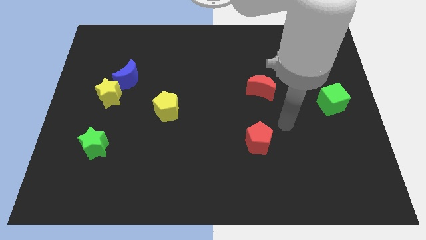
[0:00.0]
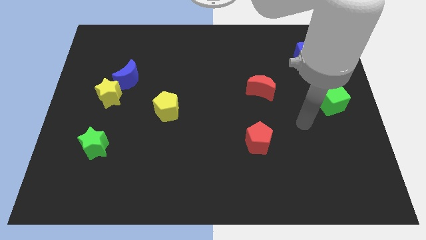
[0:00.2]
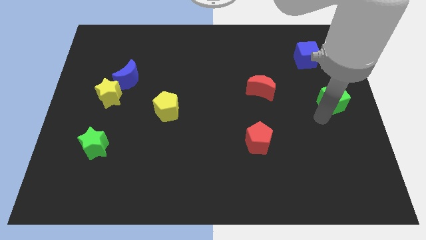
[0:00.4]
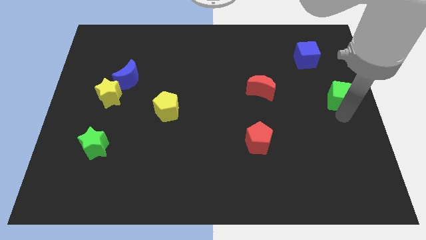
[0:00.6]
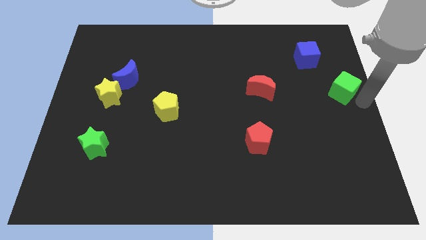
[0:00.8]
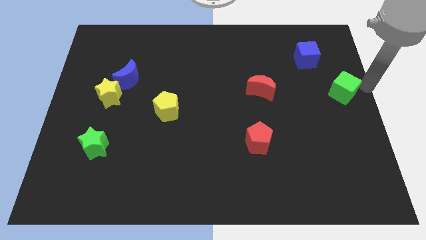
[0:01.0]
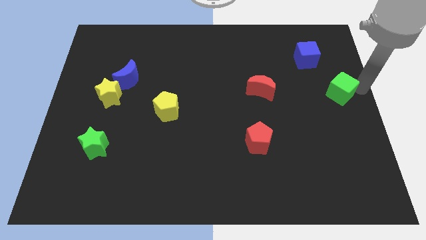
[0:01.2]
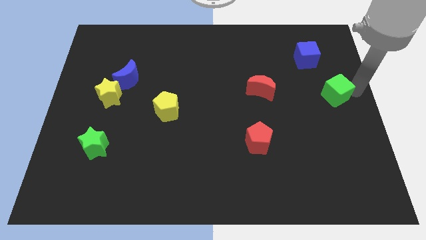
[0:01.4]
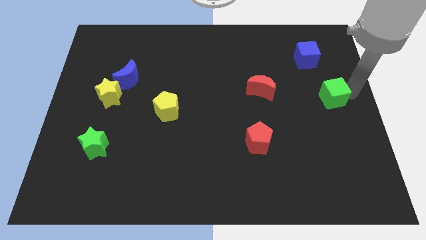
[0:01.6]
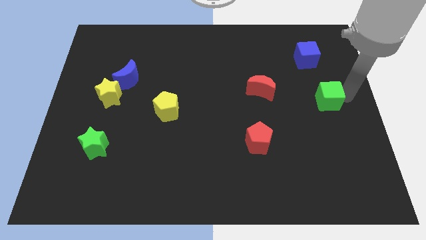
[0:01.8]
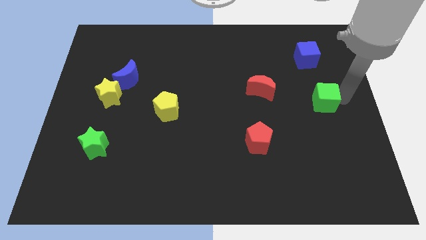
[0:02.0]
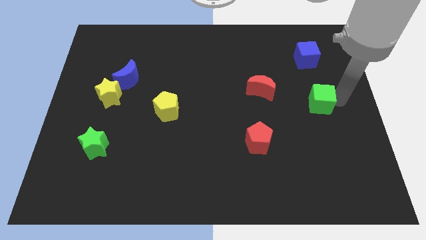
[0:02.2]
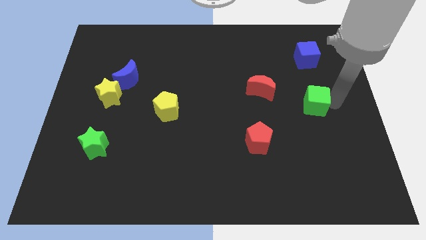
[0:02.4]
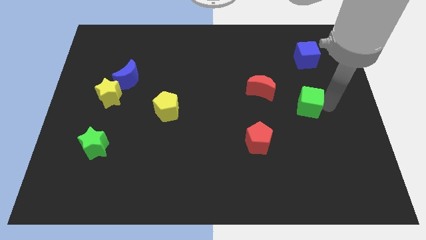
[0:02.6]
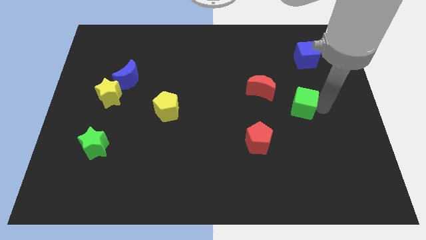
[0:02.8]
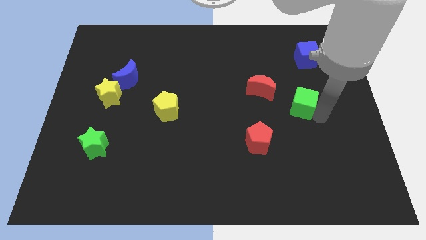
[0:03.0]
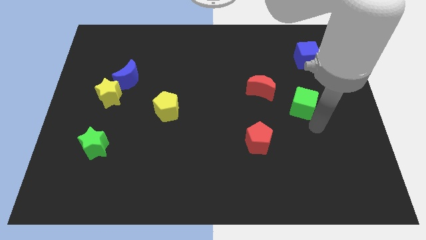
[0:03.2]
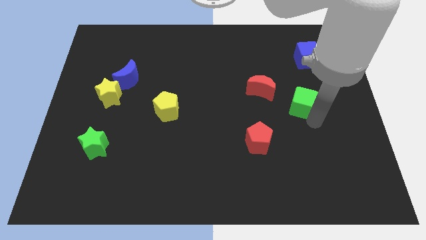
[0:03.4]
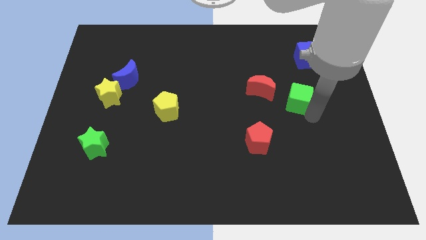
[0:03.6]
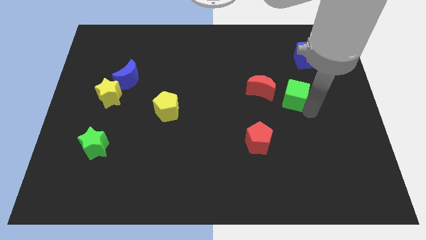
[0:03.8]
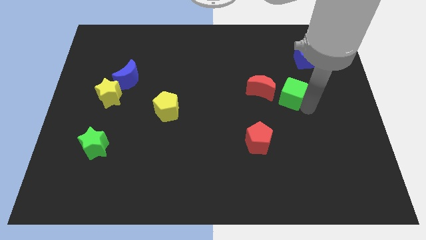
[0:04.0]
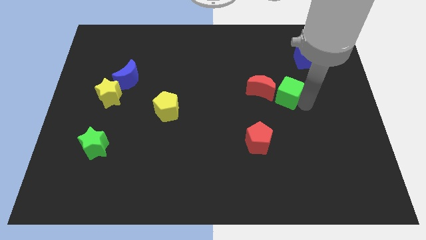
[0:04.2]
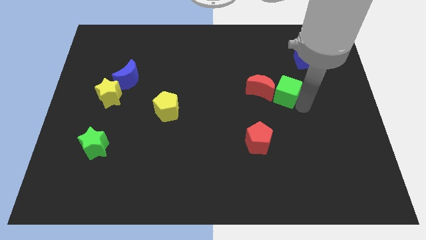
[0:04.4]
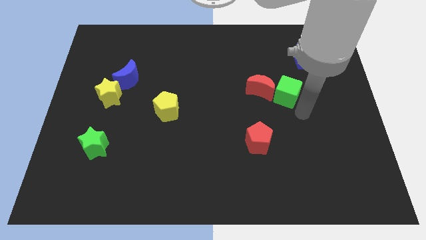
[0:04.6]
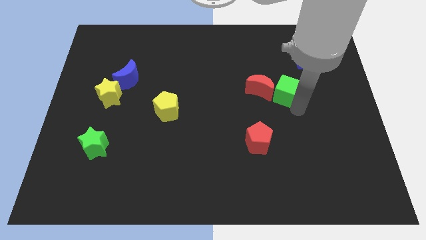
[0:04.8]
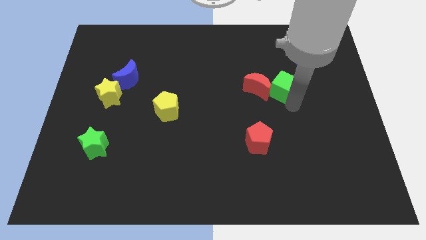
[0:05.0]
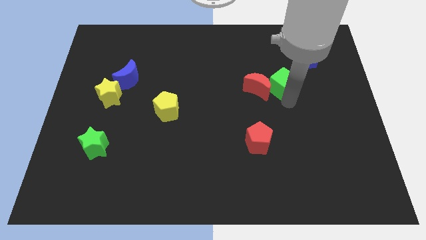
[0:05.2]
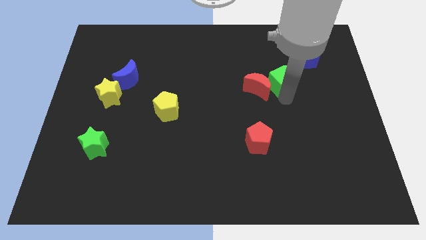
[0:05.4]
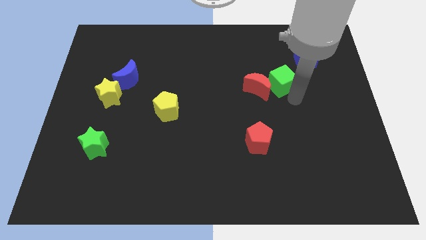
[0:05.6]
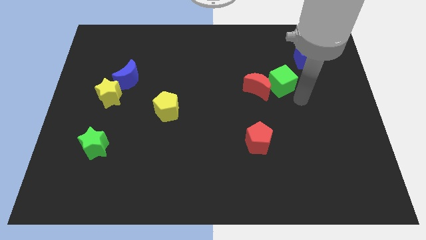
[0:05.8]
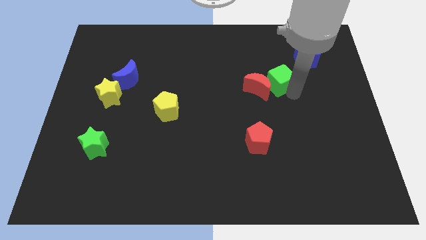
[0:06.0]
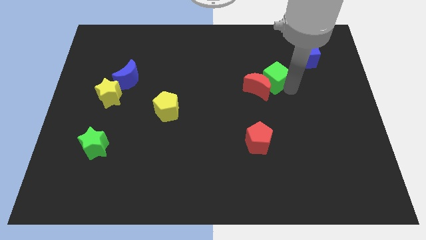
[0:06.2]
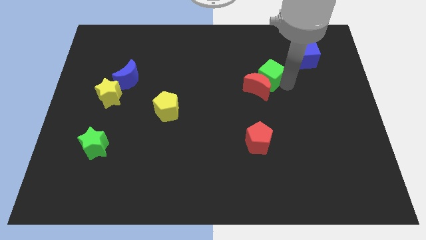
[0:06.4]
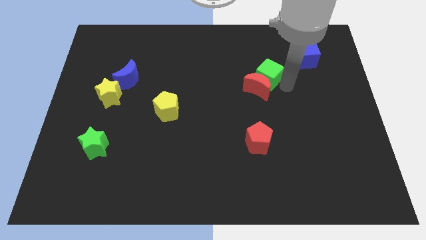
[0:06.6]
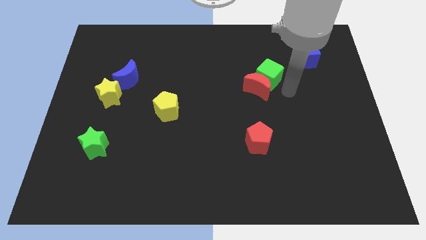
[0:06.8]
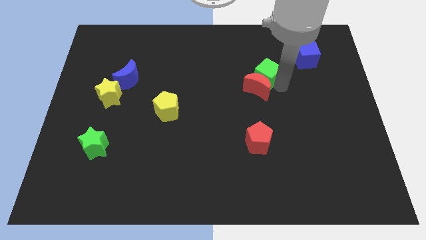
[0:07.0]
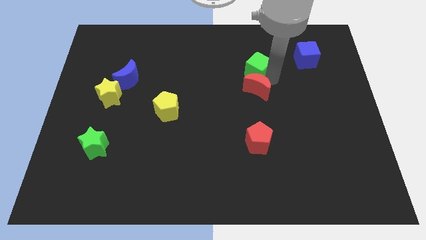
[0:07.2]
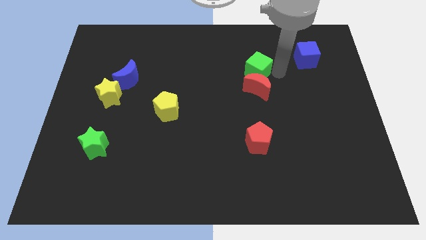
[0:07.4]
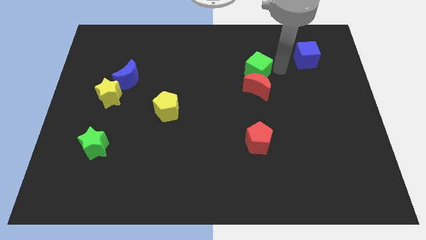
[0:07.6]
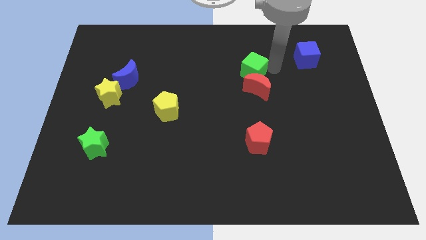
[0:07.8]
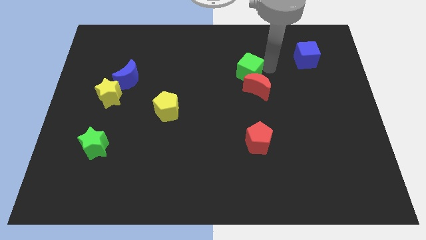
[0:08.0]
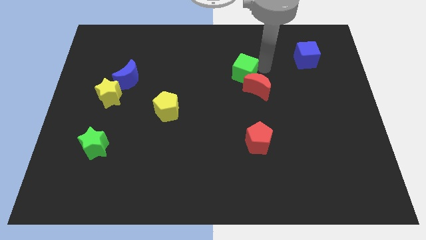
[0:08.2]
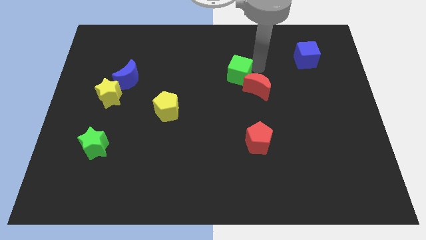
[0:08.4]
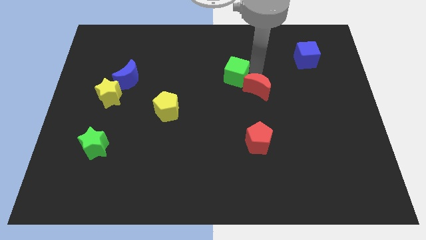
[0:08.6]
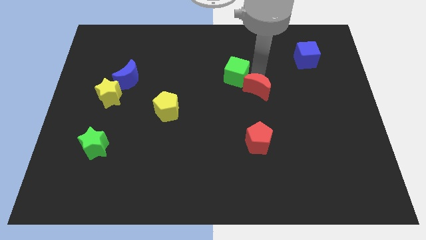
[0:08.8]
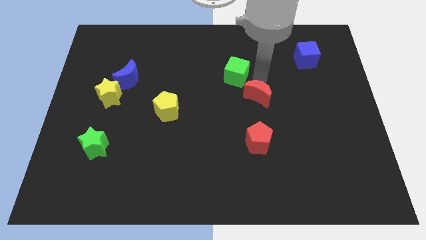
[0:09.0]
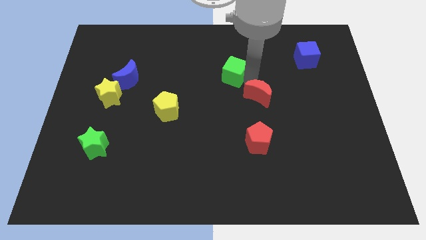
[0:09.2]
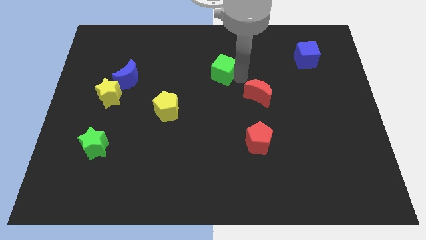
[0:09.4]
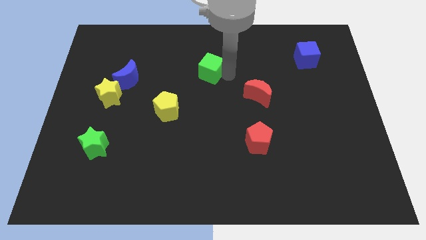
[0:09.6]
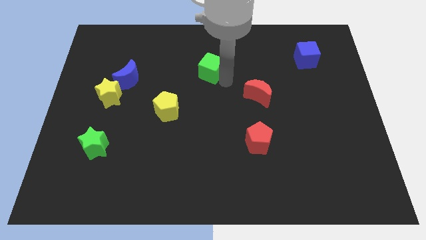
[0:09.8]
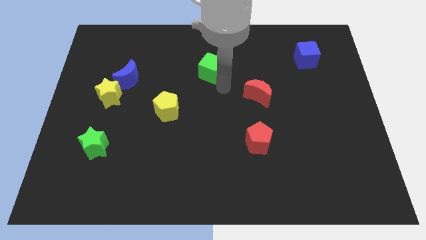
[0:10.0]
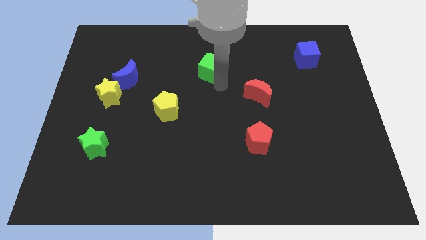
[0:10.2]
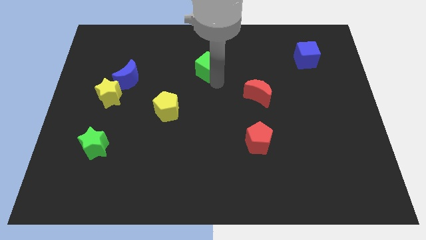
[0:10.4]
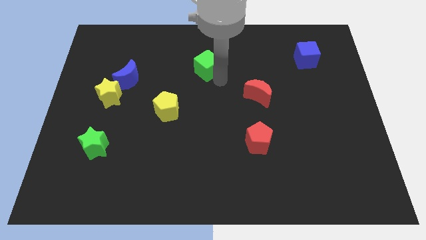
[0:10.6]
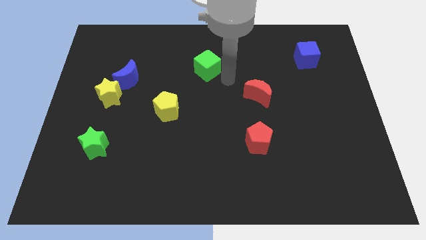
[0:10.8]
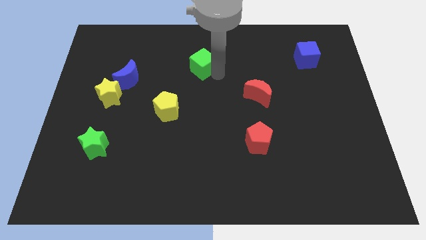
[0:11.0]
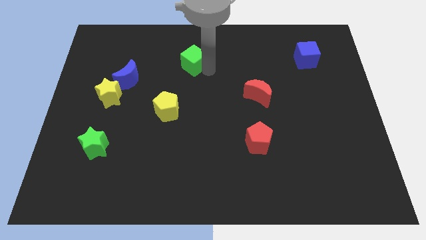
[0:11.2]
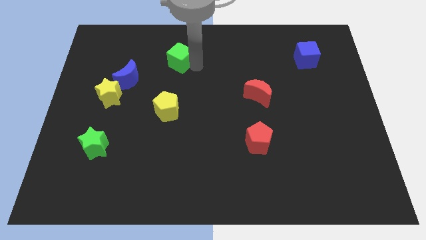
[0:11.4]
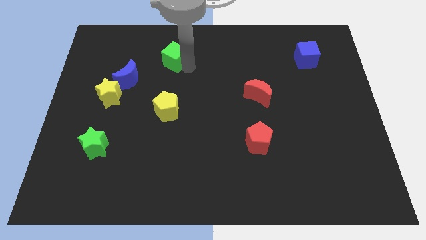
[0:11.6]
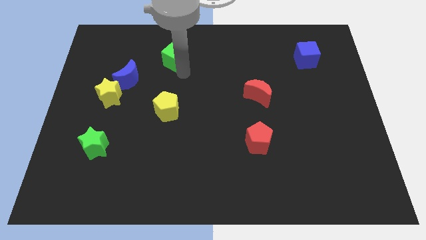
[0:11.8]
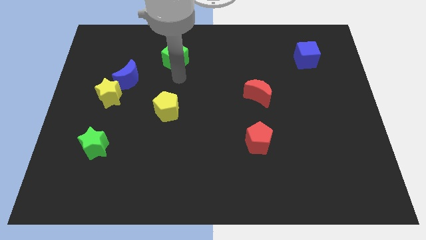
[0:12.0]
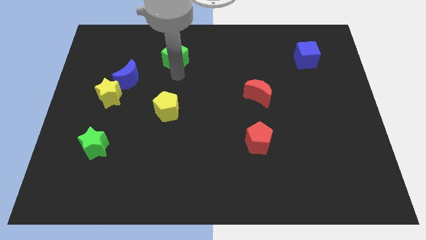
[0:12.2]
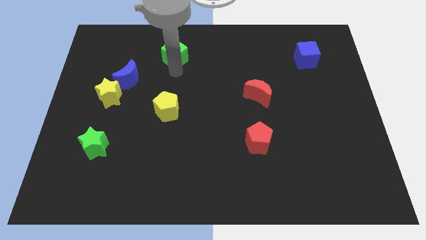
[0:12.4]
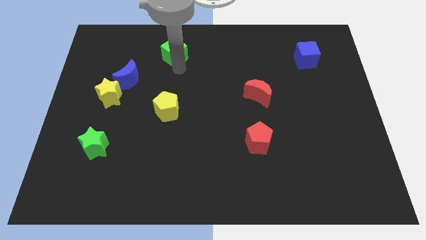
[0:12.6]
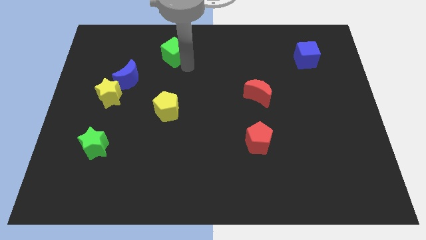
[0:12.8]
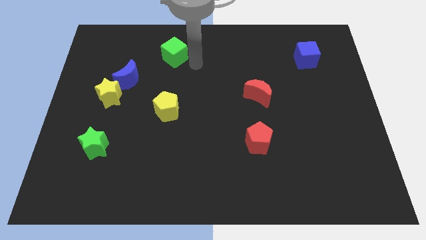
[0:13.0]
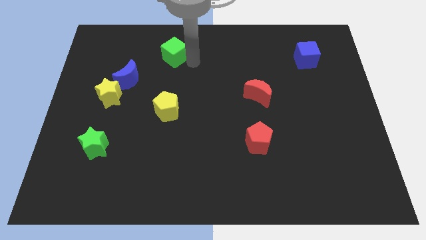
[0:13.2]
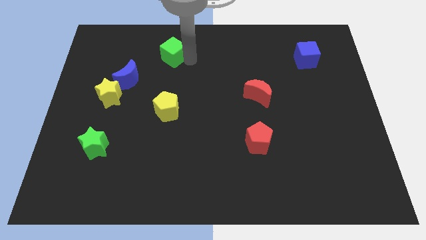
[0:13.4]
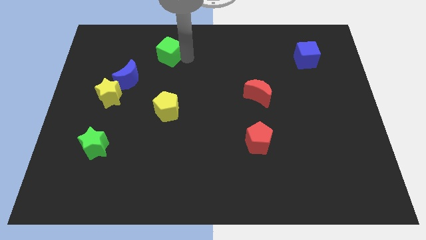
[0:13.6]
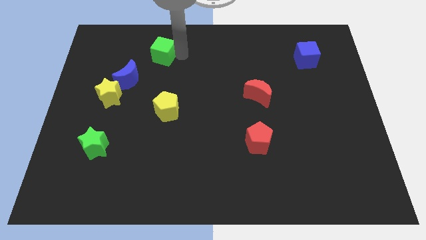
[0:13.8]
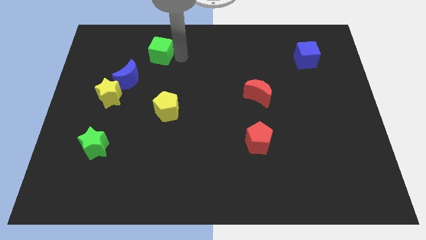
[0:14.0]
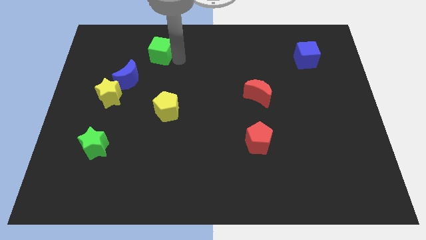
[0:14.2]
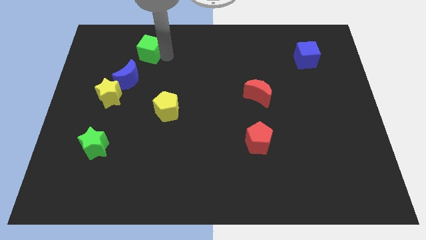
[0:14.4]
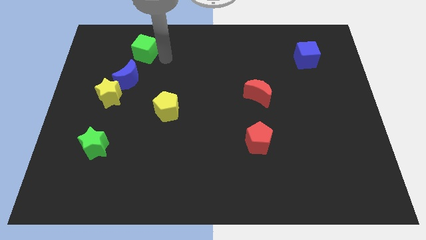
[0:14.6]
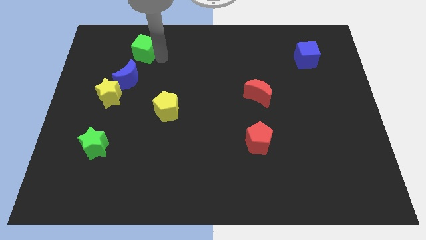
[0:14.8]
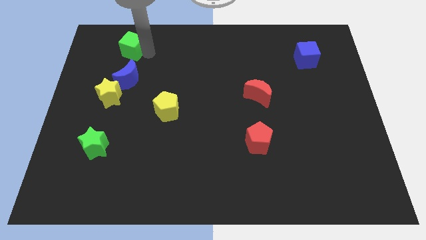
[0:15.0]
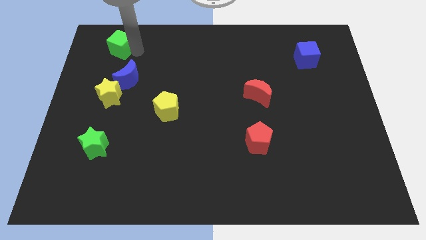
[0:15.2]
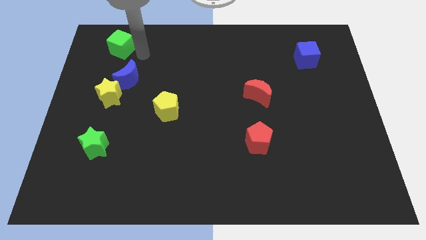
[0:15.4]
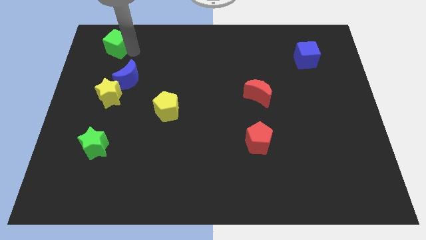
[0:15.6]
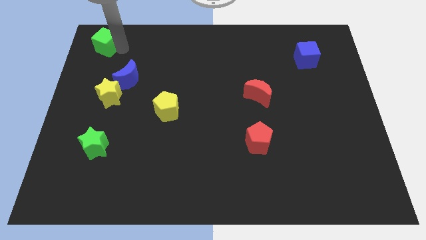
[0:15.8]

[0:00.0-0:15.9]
slide the green cube to the top left corner
